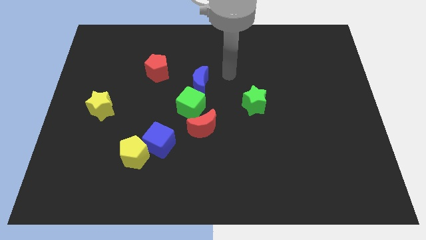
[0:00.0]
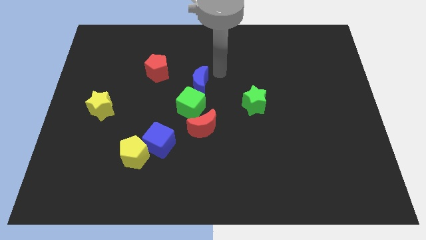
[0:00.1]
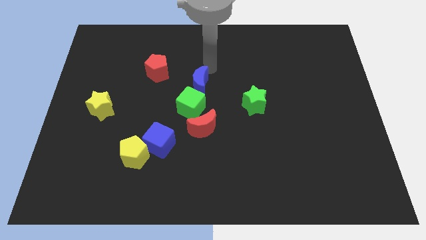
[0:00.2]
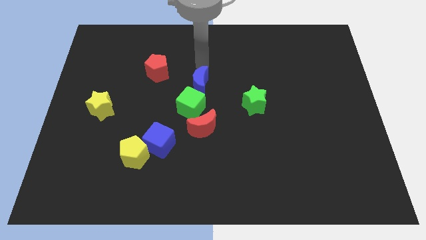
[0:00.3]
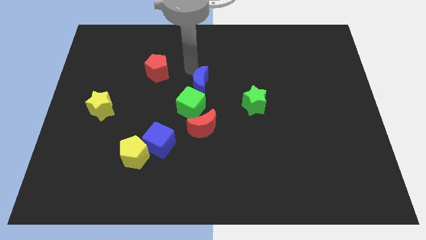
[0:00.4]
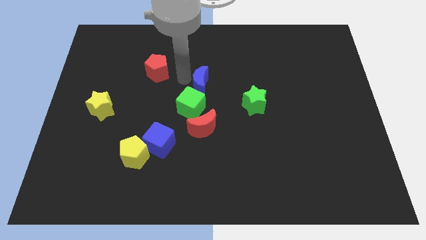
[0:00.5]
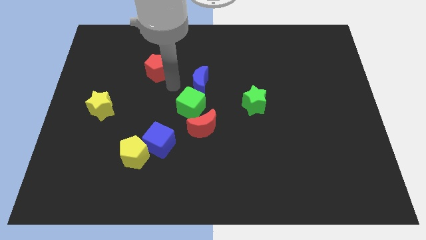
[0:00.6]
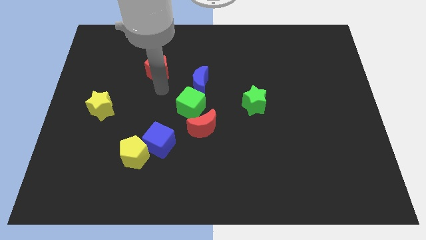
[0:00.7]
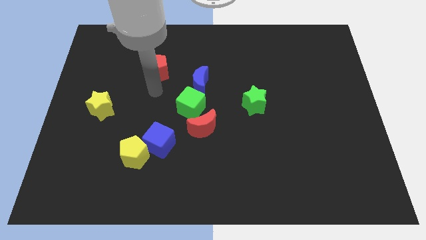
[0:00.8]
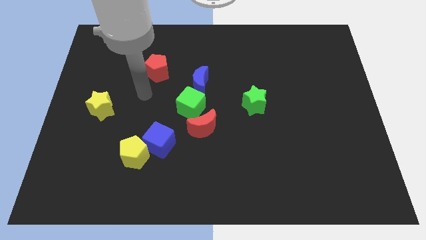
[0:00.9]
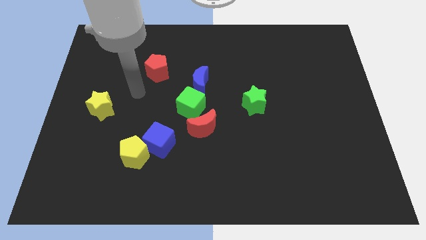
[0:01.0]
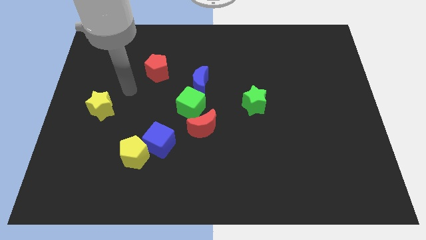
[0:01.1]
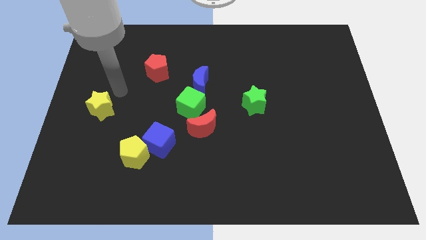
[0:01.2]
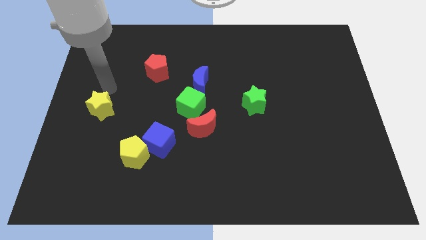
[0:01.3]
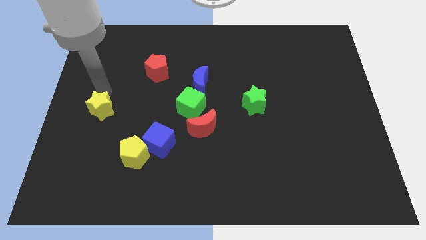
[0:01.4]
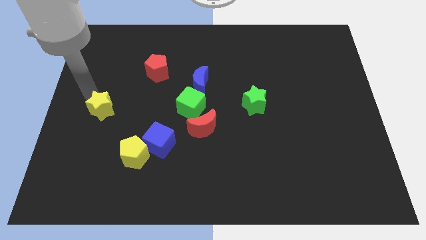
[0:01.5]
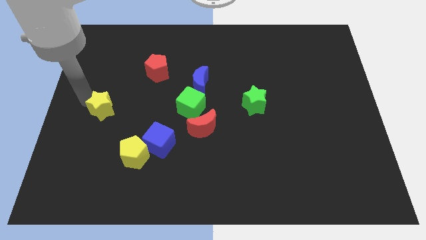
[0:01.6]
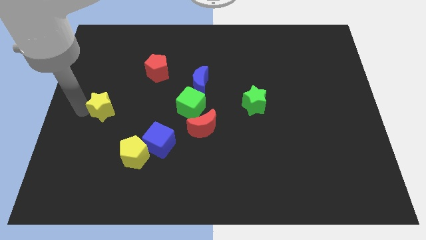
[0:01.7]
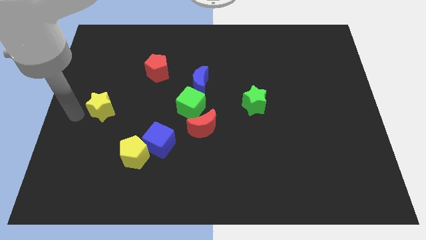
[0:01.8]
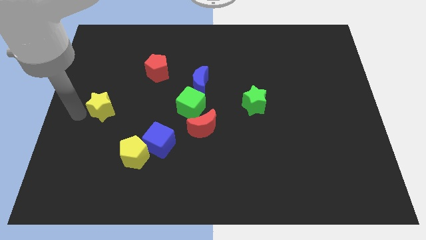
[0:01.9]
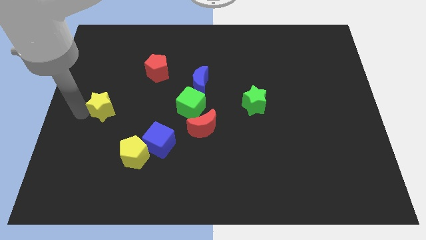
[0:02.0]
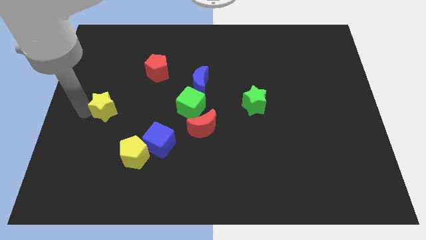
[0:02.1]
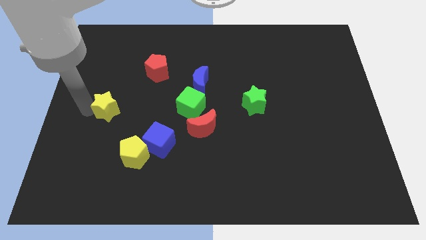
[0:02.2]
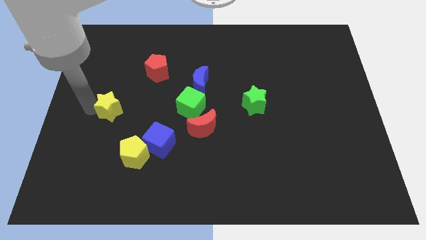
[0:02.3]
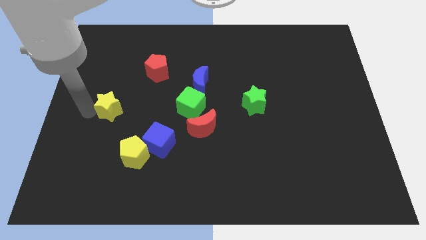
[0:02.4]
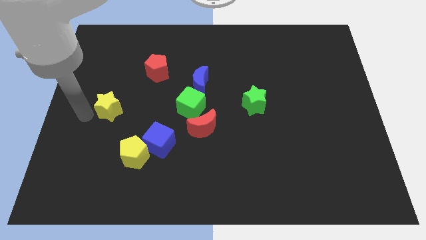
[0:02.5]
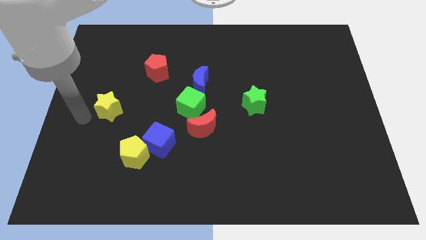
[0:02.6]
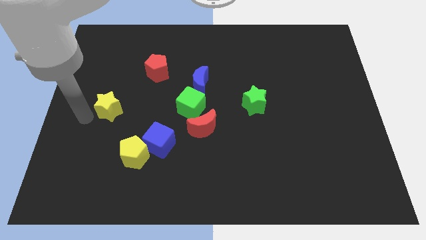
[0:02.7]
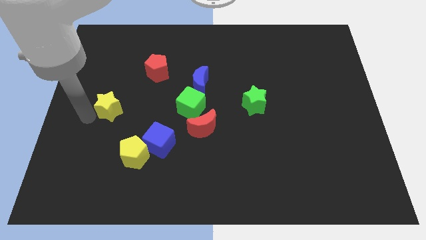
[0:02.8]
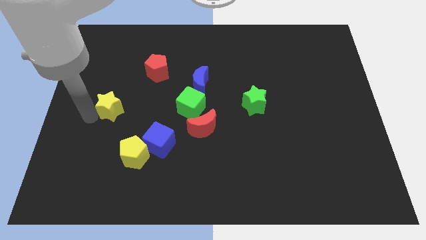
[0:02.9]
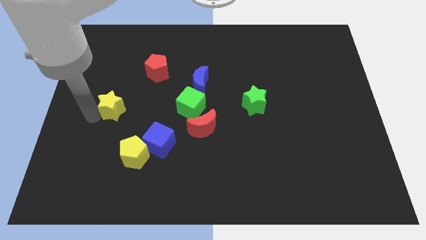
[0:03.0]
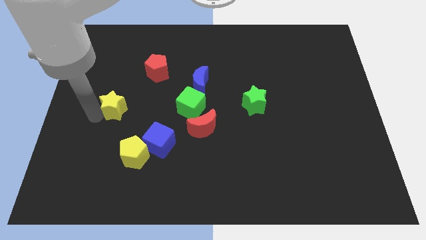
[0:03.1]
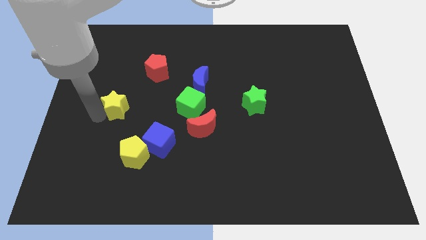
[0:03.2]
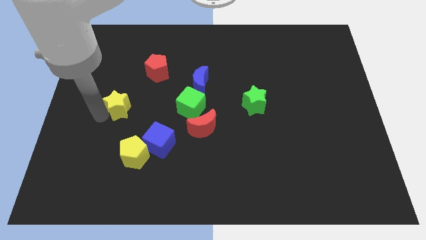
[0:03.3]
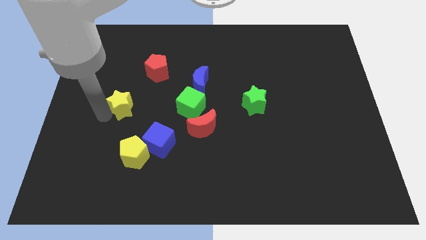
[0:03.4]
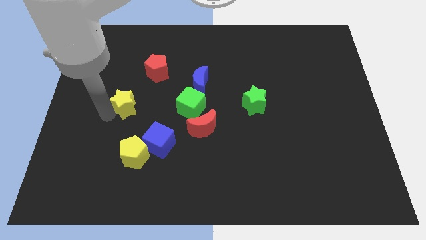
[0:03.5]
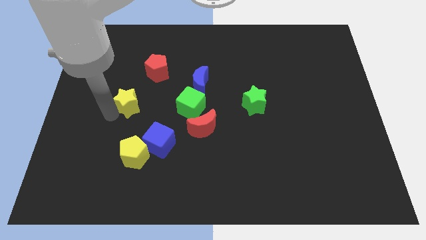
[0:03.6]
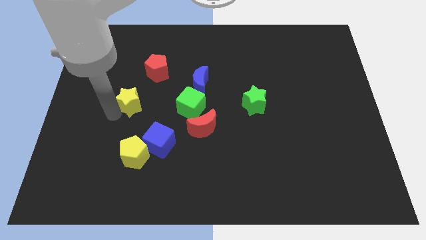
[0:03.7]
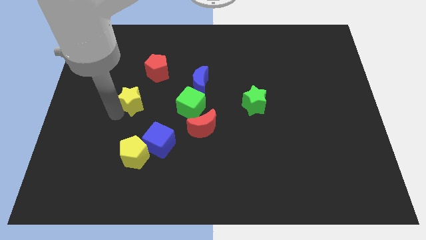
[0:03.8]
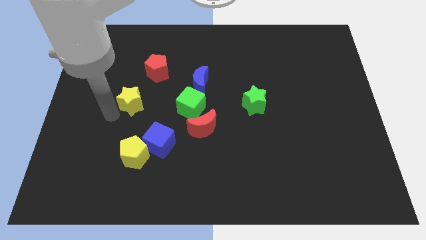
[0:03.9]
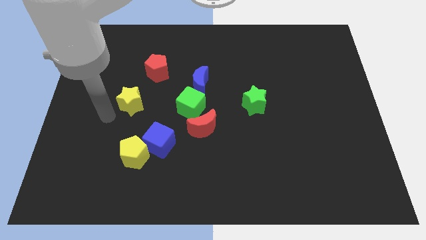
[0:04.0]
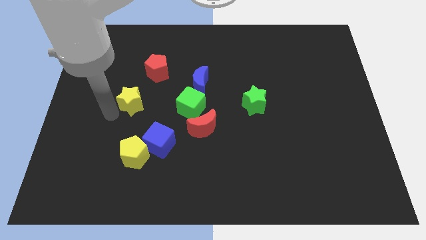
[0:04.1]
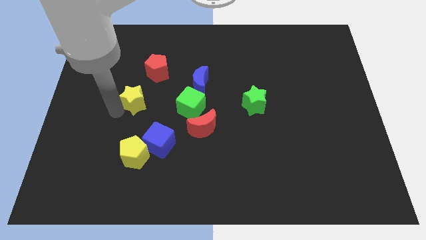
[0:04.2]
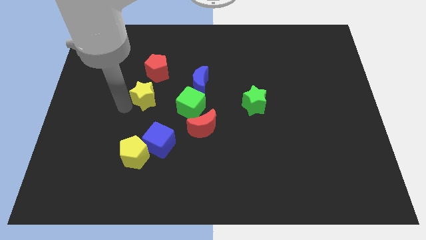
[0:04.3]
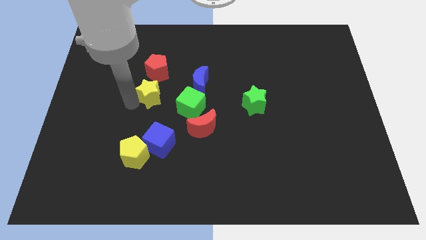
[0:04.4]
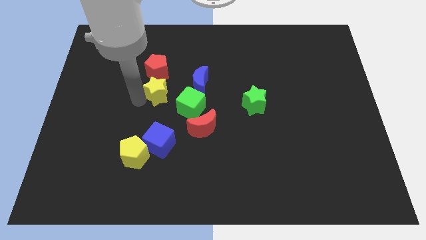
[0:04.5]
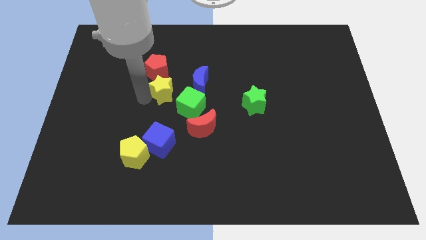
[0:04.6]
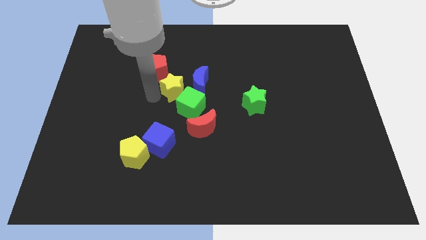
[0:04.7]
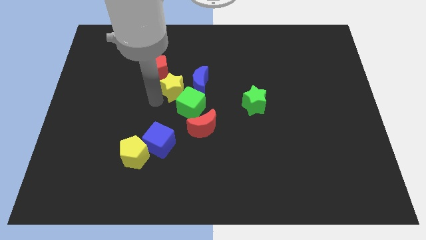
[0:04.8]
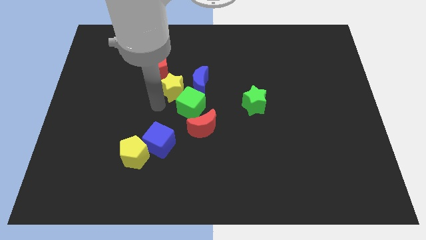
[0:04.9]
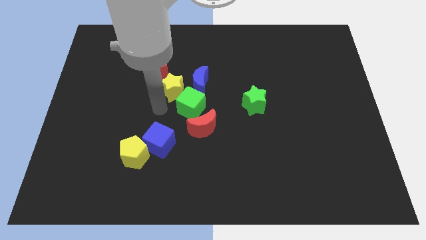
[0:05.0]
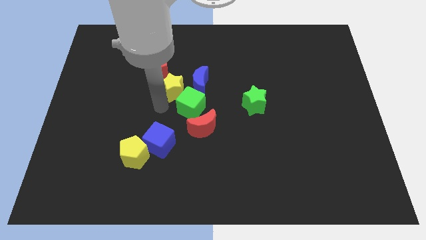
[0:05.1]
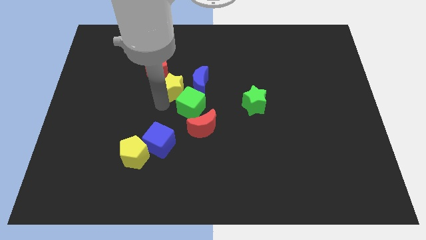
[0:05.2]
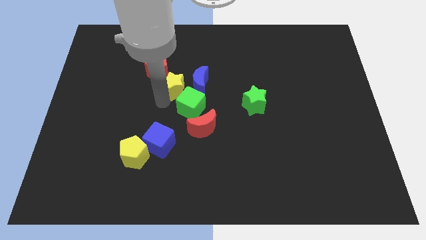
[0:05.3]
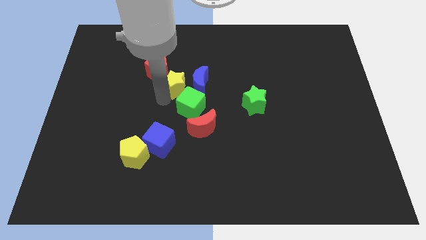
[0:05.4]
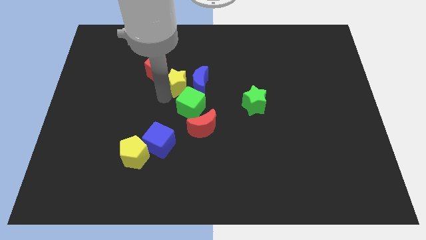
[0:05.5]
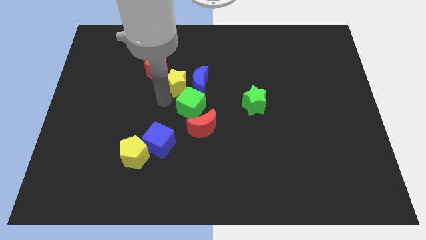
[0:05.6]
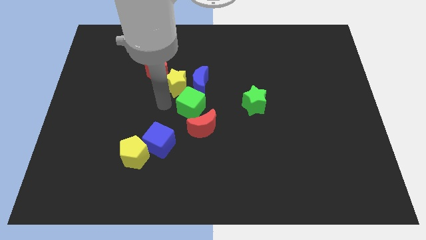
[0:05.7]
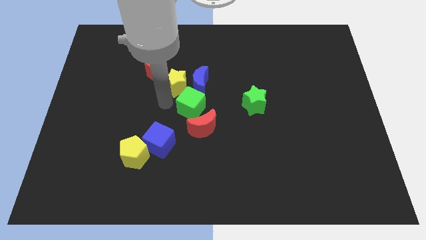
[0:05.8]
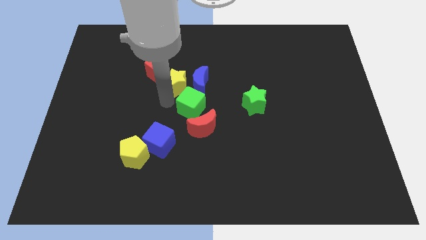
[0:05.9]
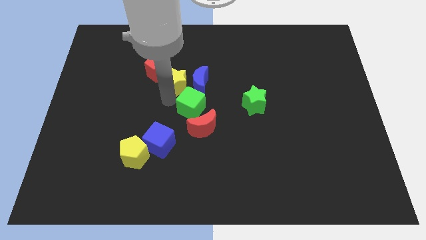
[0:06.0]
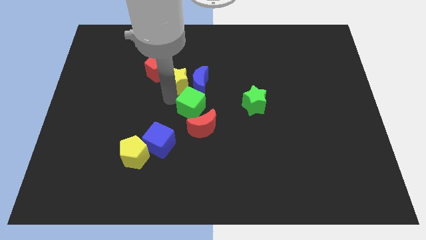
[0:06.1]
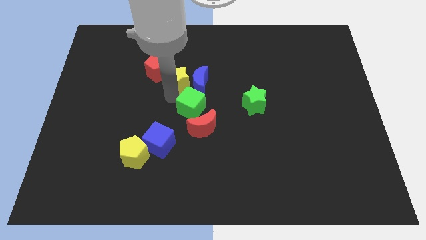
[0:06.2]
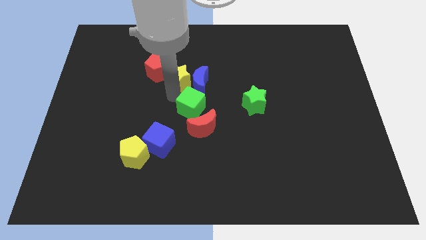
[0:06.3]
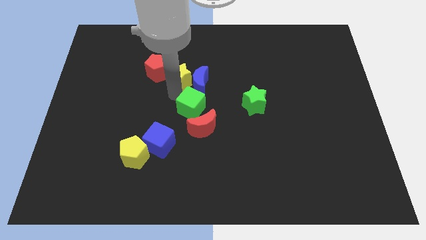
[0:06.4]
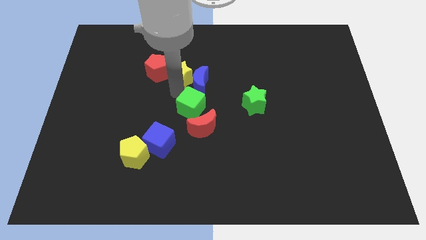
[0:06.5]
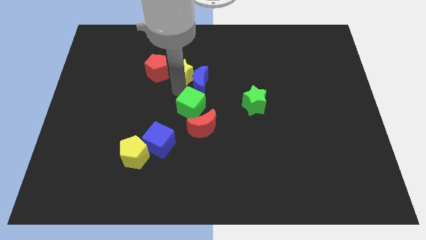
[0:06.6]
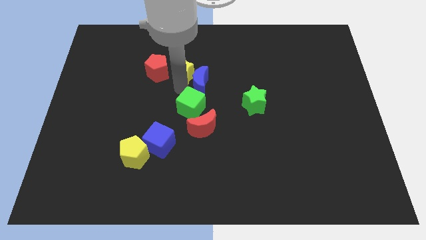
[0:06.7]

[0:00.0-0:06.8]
push the yellow star to the top side of the blue moon

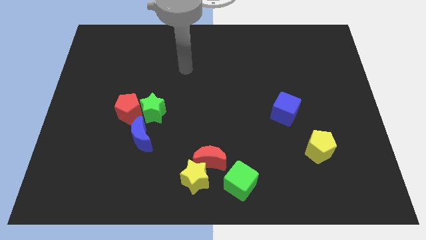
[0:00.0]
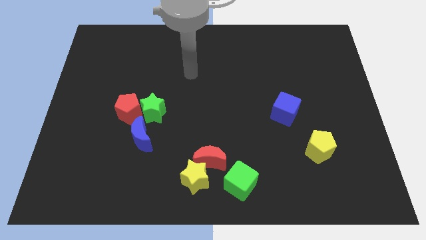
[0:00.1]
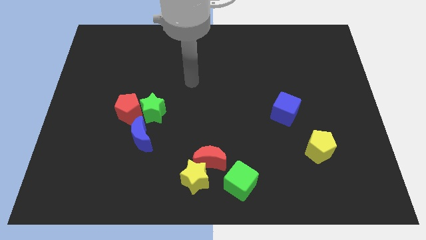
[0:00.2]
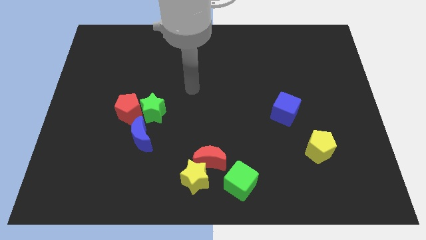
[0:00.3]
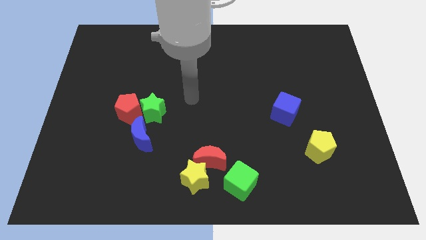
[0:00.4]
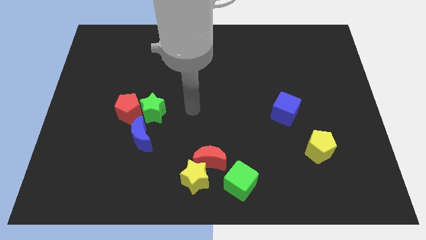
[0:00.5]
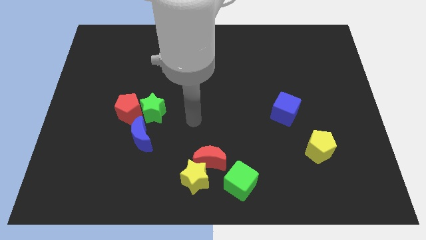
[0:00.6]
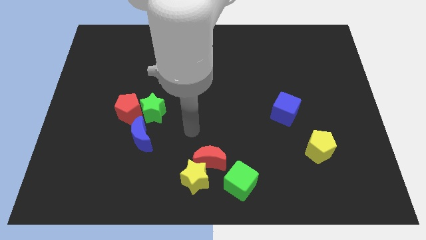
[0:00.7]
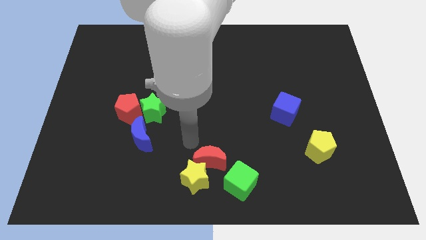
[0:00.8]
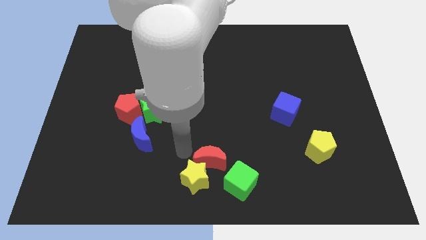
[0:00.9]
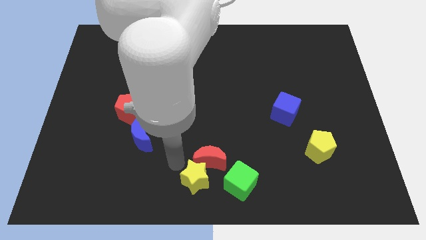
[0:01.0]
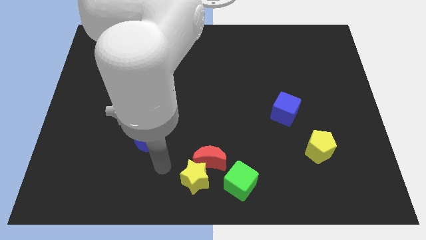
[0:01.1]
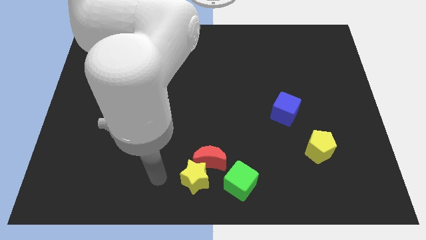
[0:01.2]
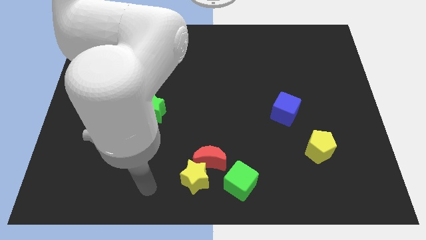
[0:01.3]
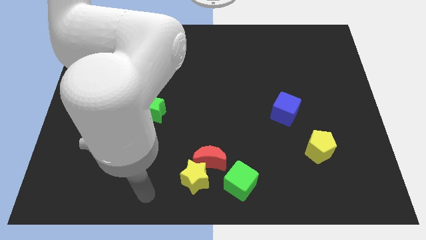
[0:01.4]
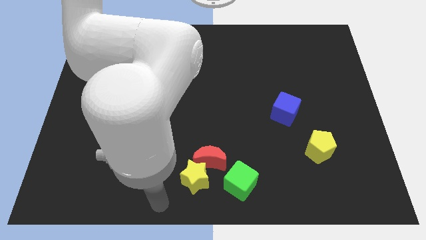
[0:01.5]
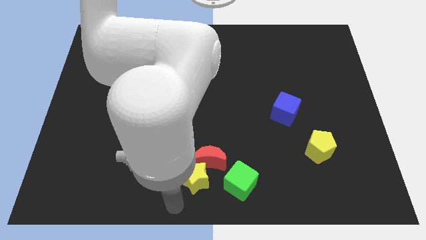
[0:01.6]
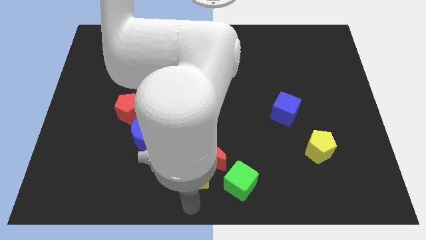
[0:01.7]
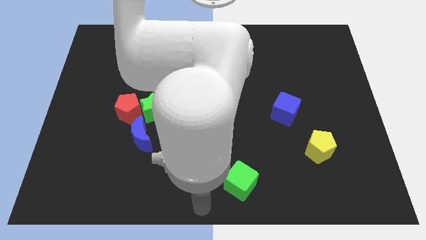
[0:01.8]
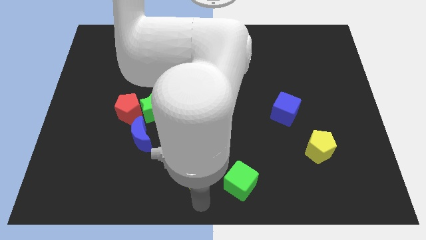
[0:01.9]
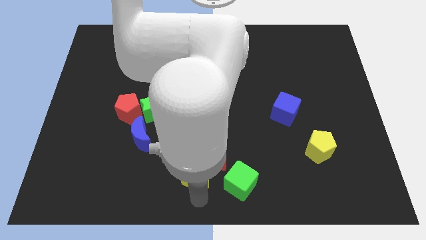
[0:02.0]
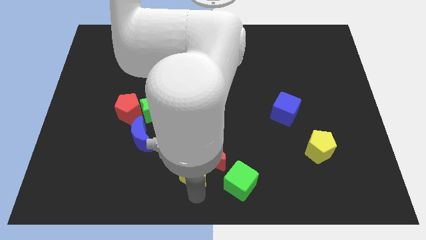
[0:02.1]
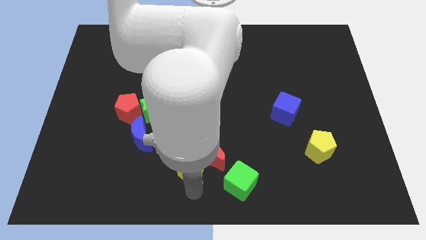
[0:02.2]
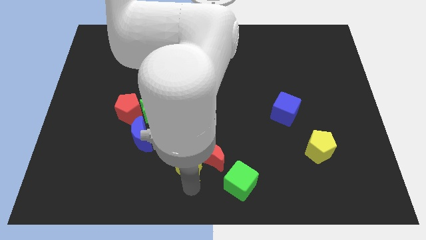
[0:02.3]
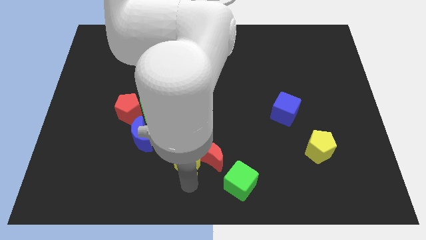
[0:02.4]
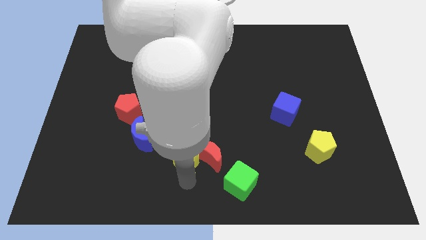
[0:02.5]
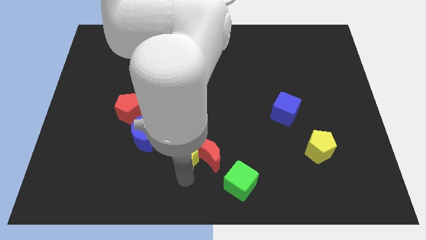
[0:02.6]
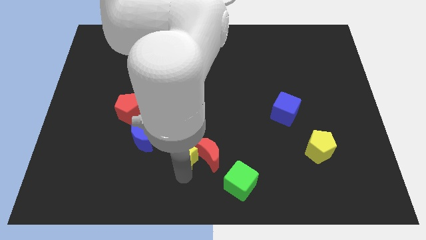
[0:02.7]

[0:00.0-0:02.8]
move the yellow star to the right side of the blue moon
